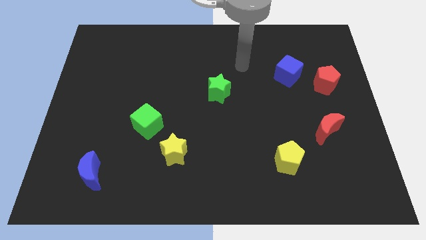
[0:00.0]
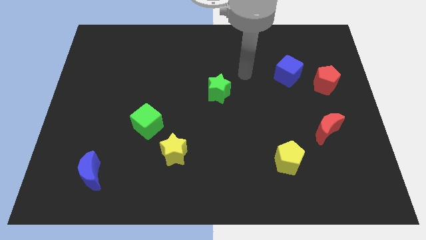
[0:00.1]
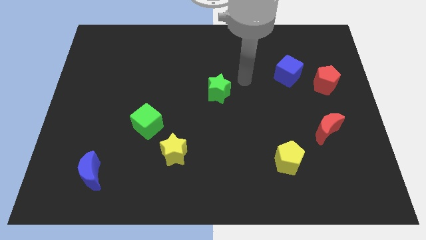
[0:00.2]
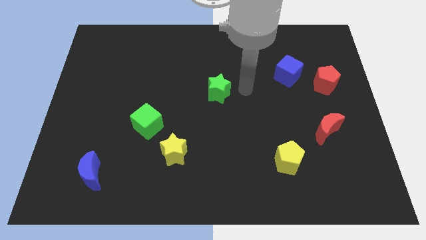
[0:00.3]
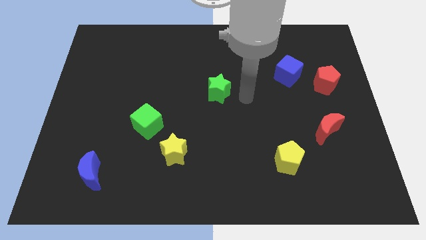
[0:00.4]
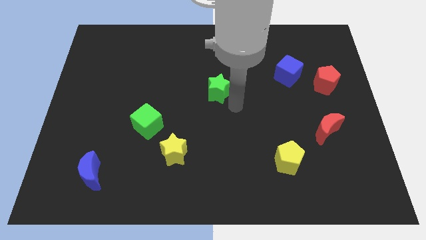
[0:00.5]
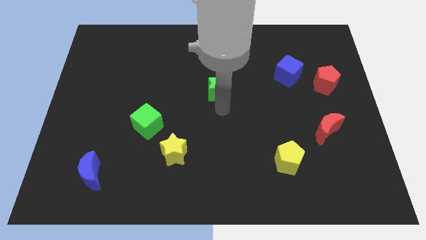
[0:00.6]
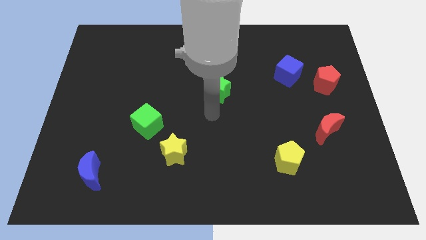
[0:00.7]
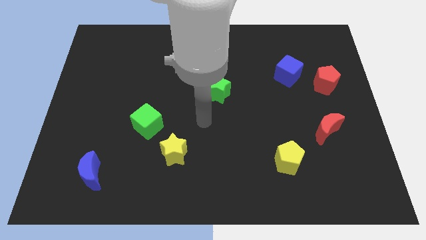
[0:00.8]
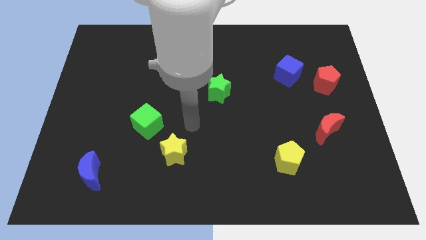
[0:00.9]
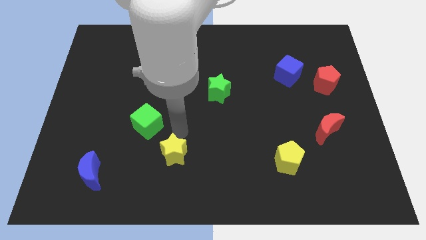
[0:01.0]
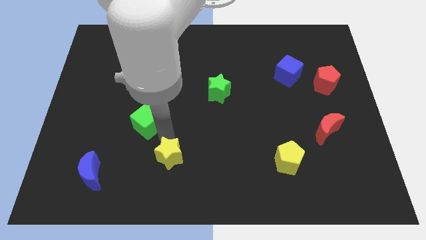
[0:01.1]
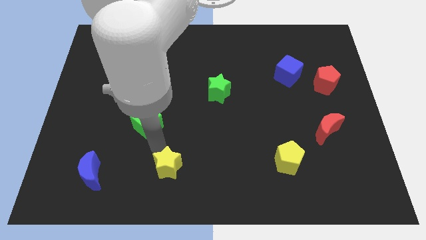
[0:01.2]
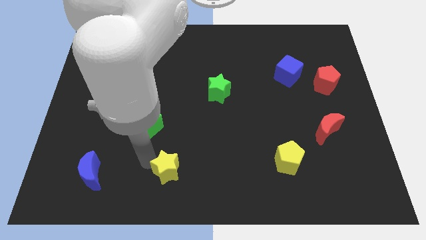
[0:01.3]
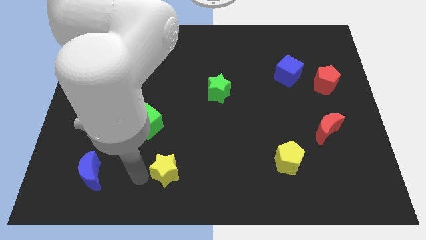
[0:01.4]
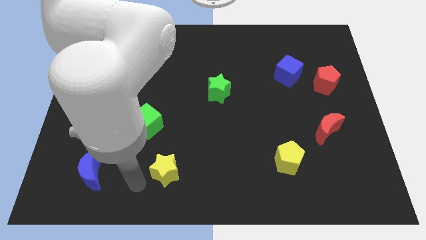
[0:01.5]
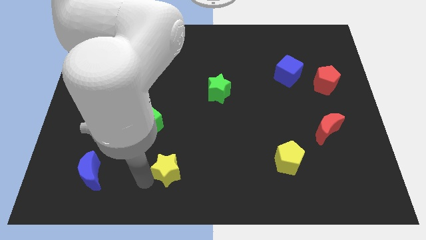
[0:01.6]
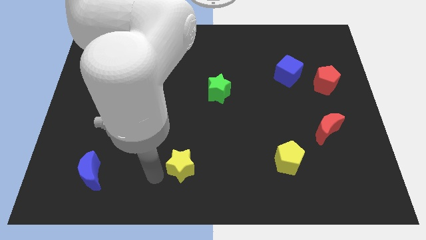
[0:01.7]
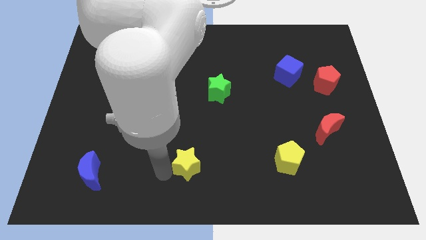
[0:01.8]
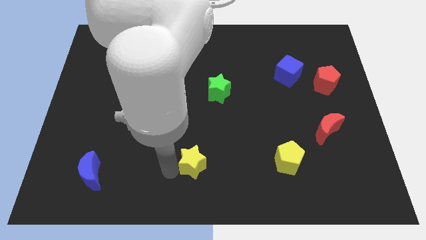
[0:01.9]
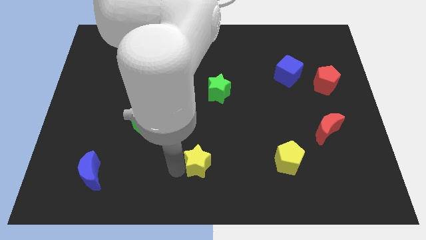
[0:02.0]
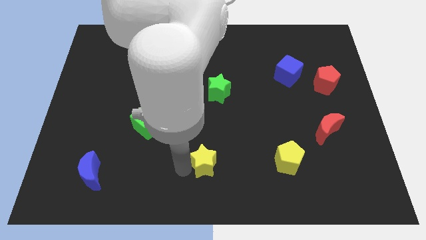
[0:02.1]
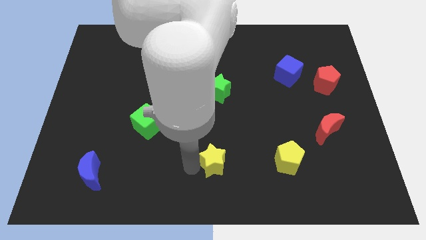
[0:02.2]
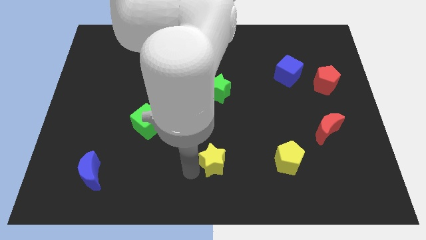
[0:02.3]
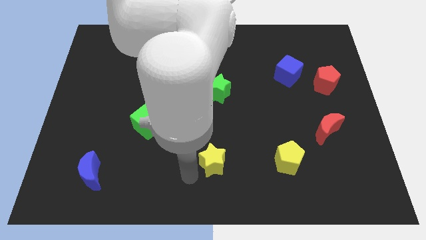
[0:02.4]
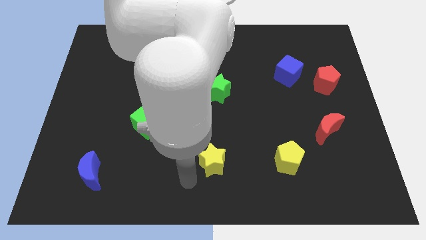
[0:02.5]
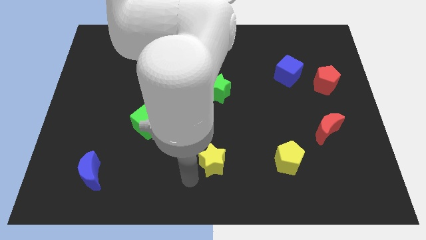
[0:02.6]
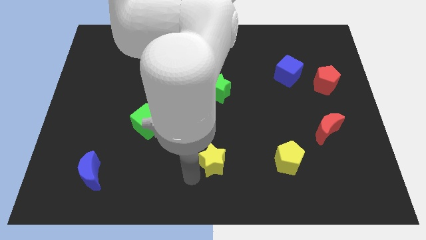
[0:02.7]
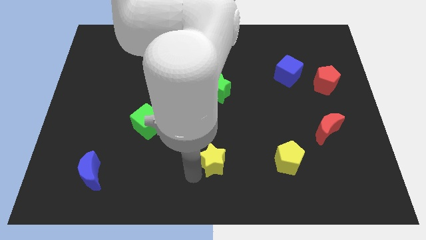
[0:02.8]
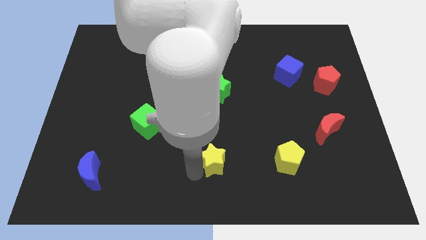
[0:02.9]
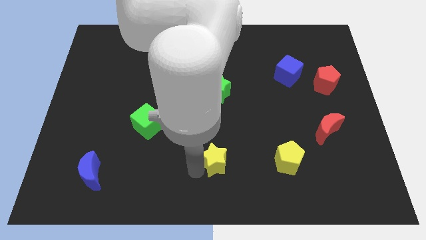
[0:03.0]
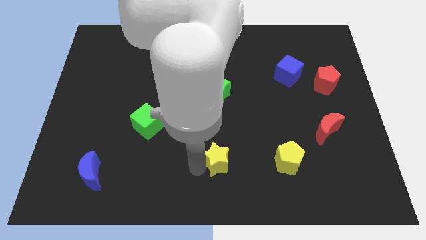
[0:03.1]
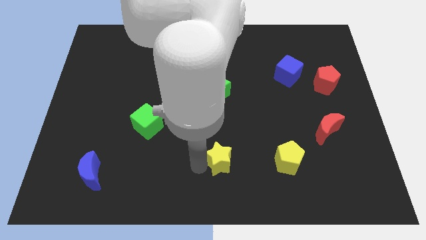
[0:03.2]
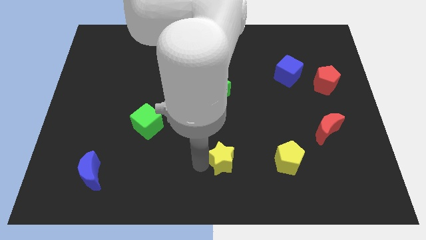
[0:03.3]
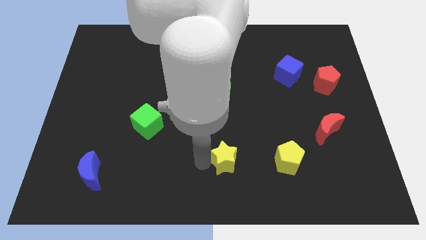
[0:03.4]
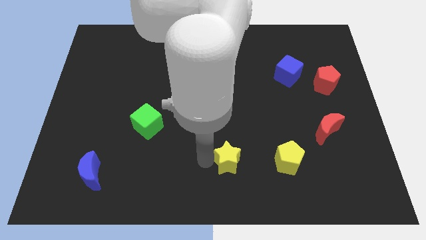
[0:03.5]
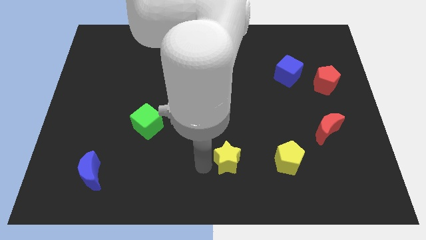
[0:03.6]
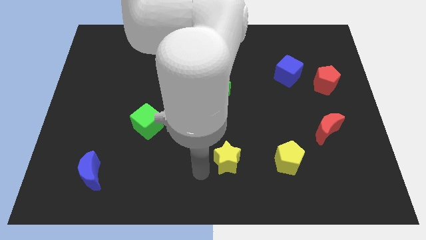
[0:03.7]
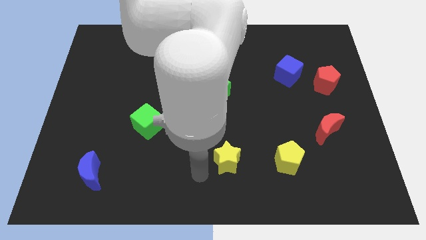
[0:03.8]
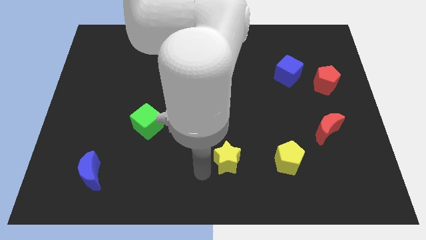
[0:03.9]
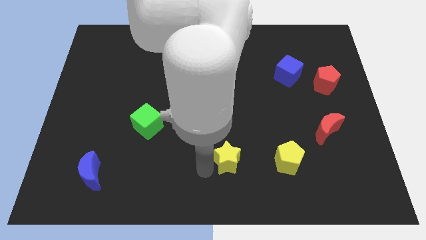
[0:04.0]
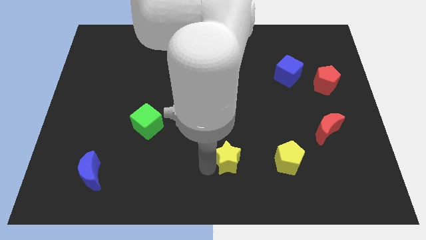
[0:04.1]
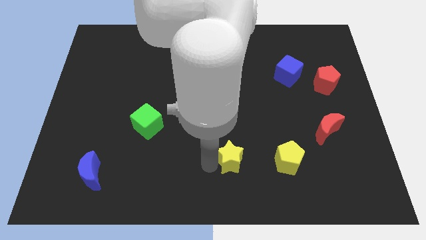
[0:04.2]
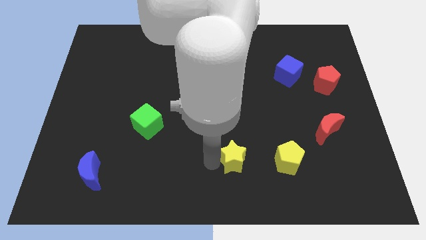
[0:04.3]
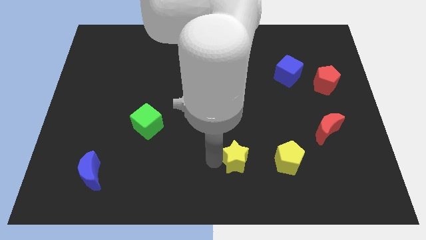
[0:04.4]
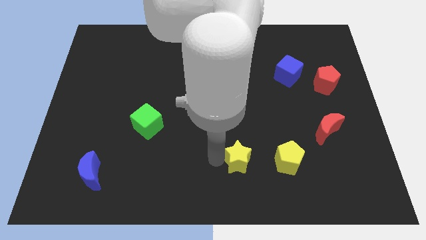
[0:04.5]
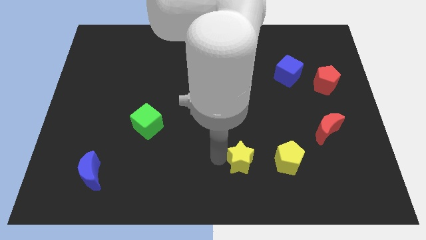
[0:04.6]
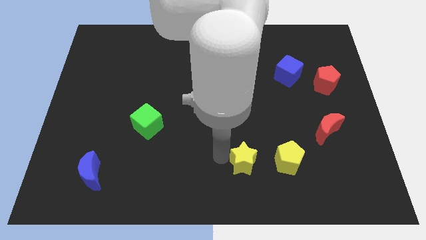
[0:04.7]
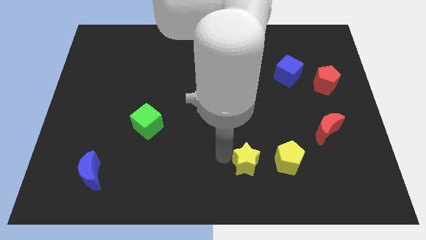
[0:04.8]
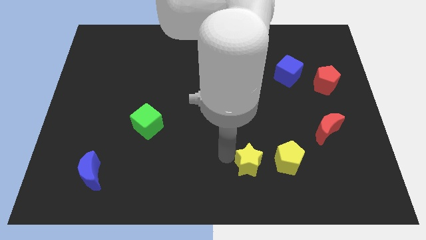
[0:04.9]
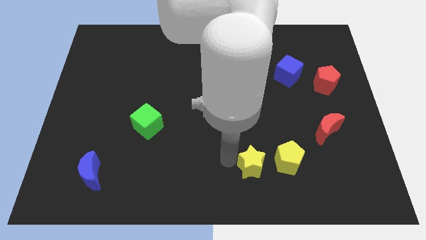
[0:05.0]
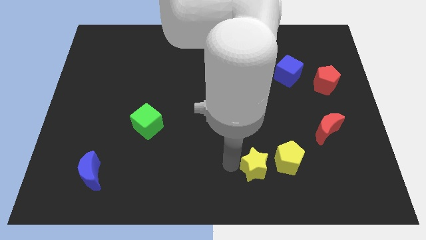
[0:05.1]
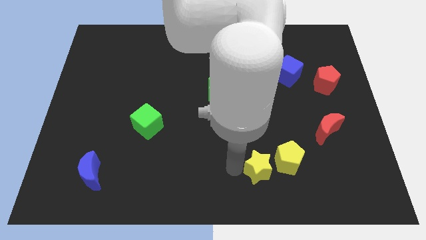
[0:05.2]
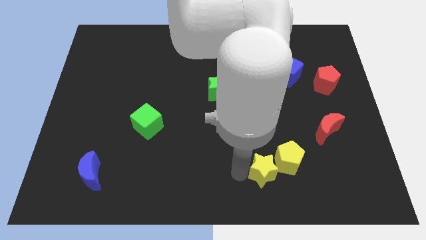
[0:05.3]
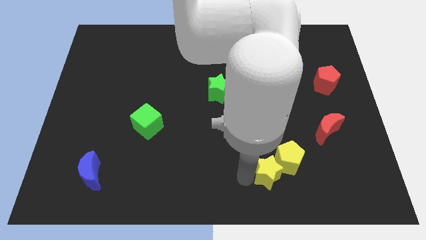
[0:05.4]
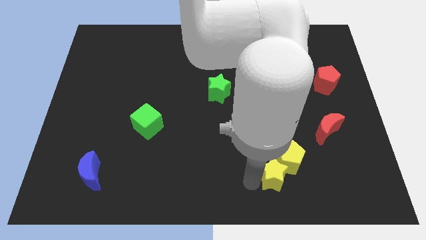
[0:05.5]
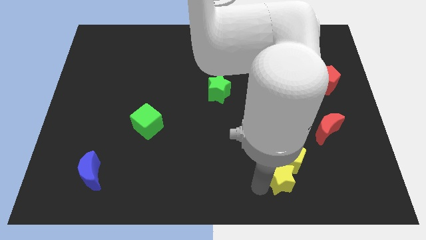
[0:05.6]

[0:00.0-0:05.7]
push the yellow star to the right

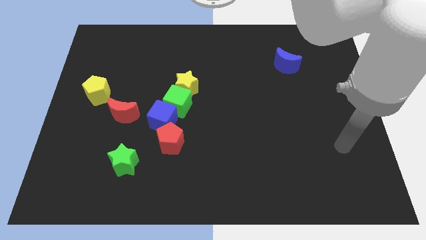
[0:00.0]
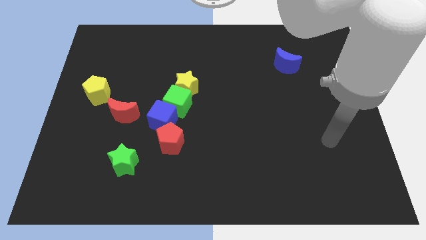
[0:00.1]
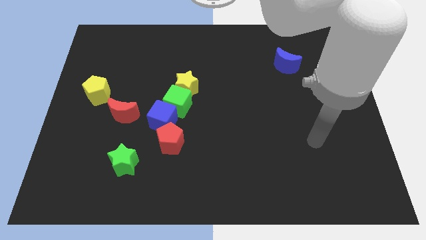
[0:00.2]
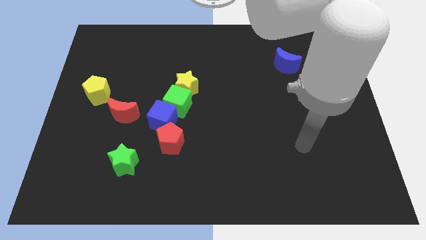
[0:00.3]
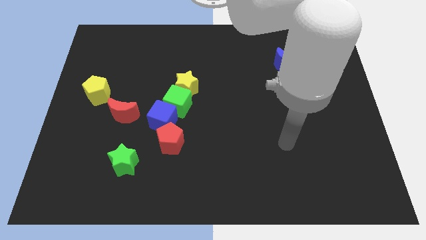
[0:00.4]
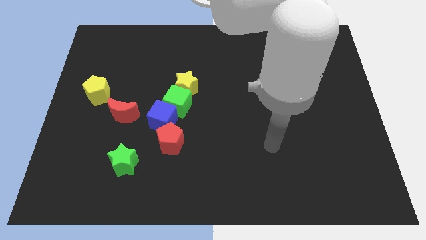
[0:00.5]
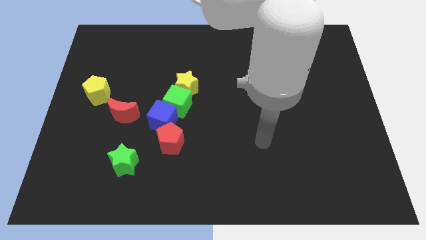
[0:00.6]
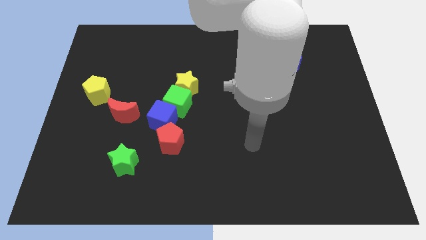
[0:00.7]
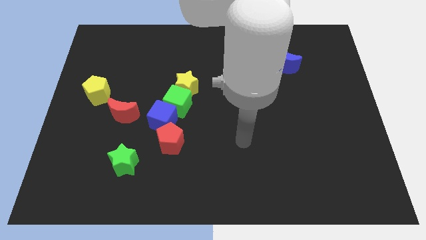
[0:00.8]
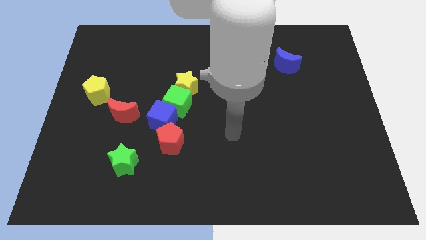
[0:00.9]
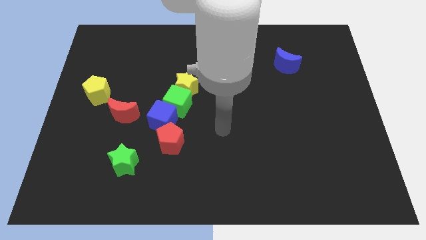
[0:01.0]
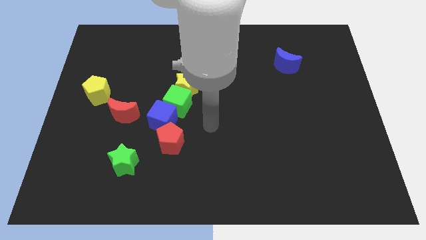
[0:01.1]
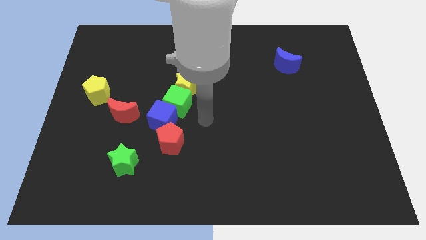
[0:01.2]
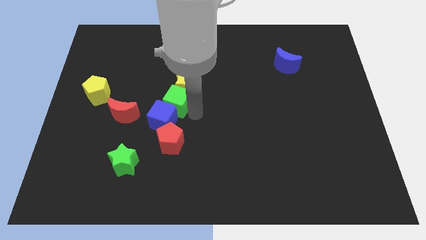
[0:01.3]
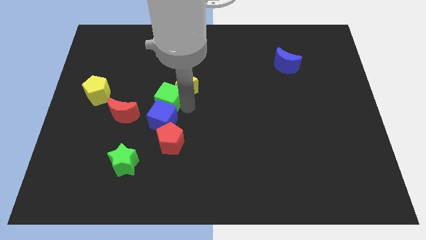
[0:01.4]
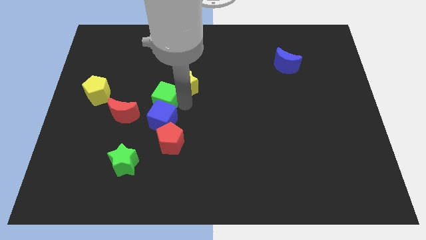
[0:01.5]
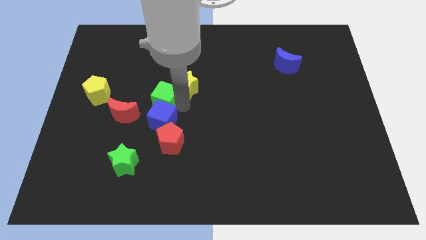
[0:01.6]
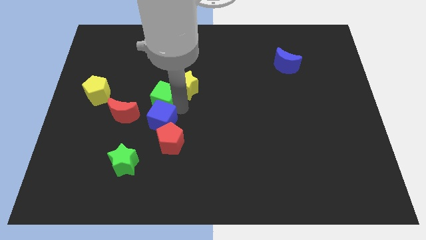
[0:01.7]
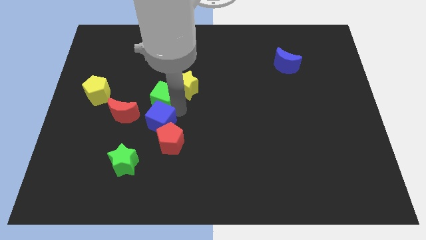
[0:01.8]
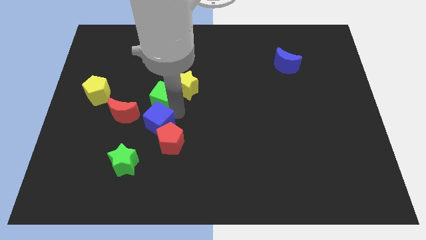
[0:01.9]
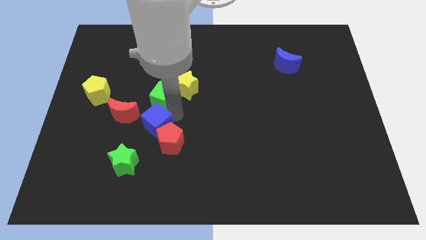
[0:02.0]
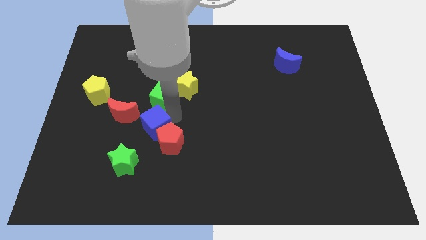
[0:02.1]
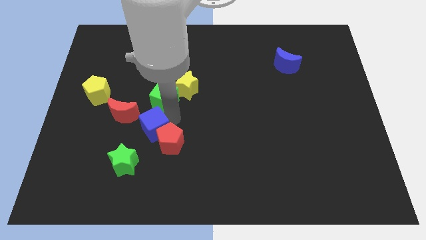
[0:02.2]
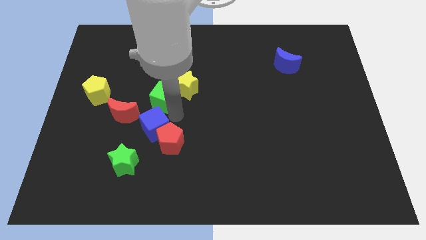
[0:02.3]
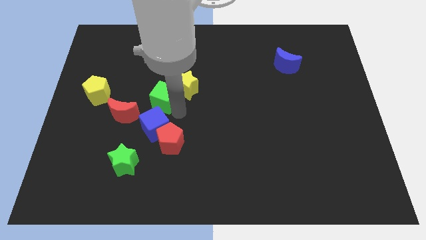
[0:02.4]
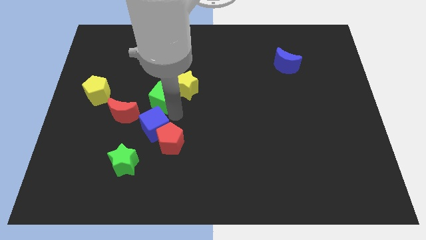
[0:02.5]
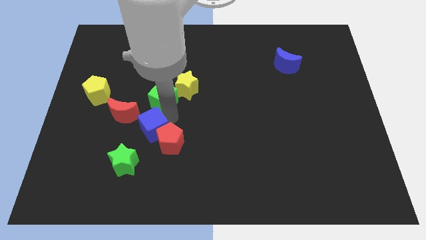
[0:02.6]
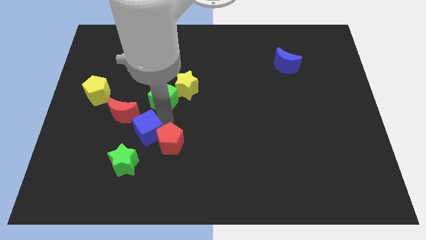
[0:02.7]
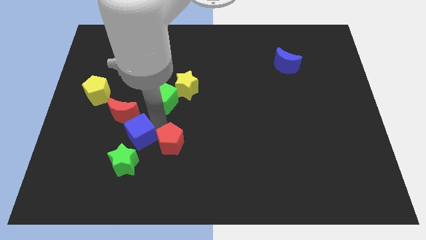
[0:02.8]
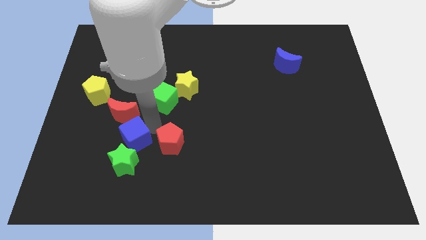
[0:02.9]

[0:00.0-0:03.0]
push the blue cube downwards and left diagonally slightly
